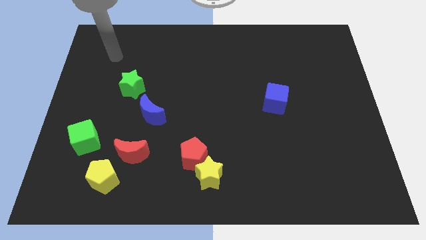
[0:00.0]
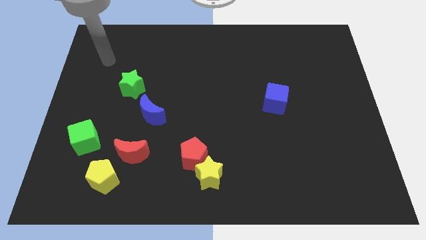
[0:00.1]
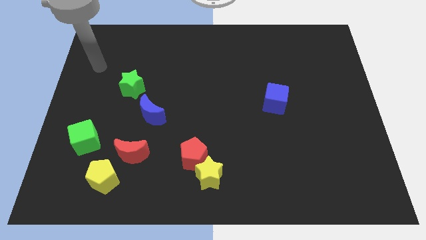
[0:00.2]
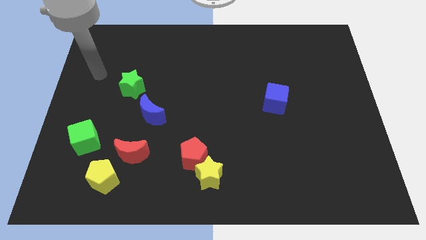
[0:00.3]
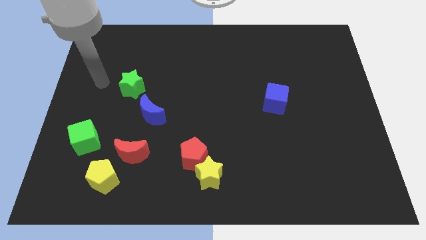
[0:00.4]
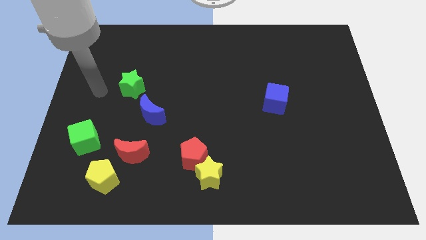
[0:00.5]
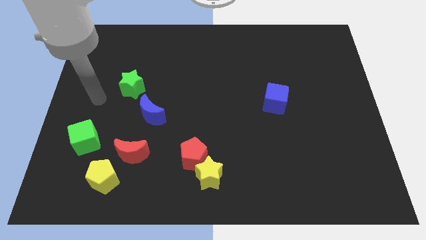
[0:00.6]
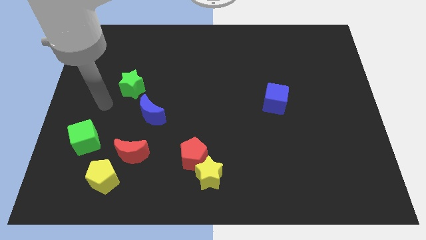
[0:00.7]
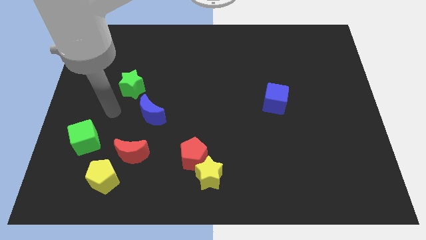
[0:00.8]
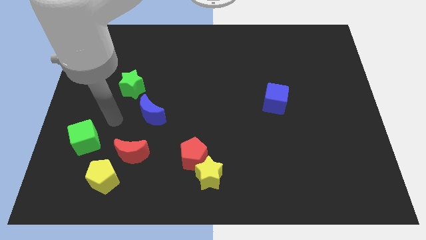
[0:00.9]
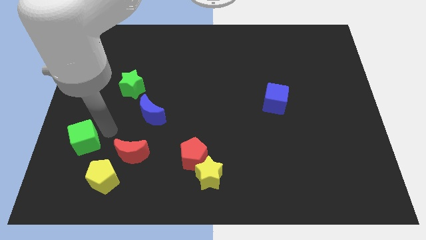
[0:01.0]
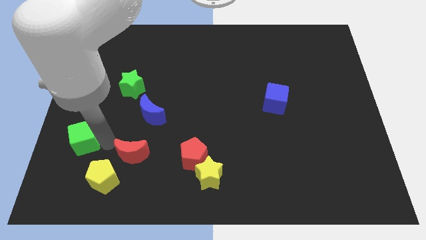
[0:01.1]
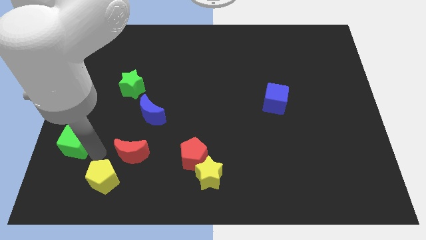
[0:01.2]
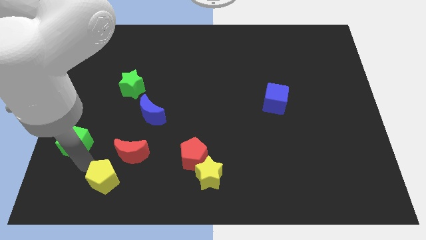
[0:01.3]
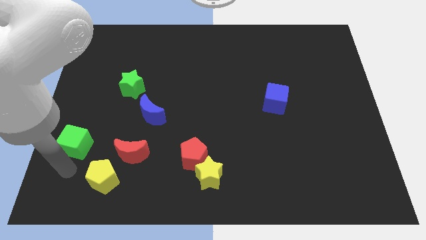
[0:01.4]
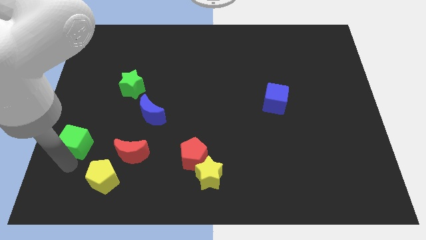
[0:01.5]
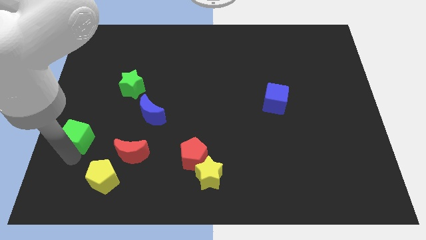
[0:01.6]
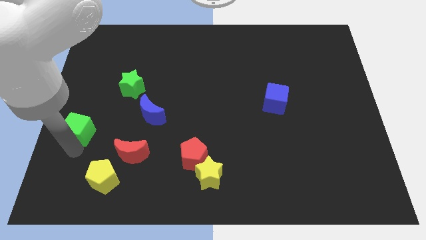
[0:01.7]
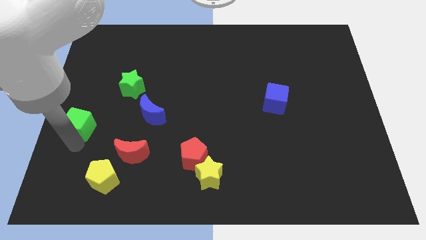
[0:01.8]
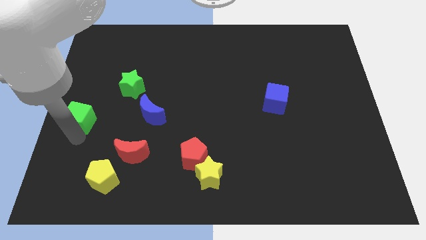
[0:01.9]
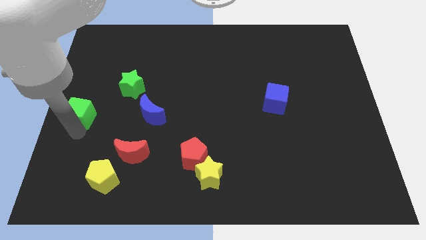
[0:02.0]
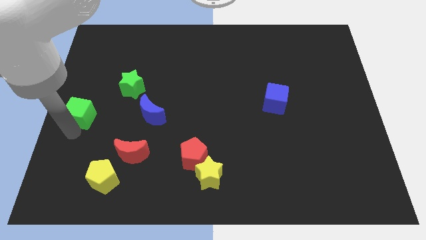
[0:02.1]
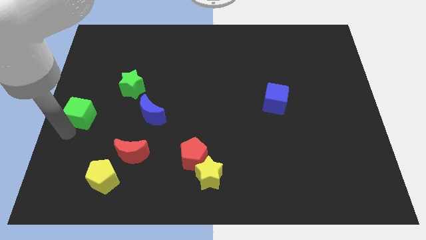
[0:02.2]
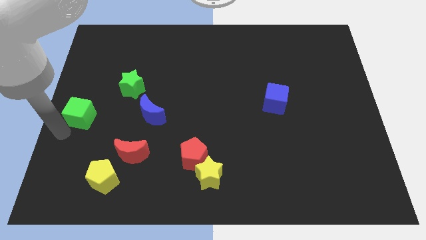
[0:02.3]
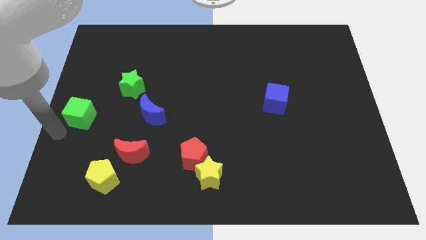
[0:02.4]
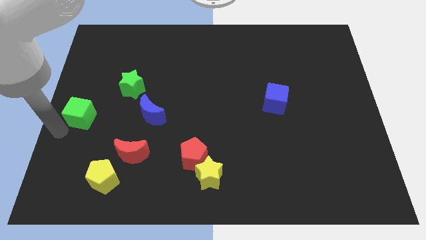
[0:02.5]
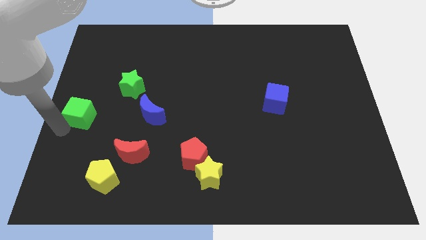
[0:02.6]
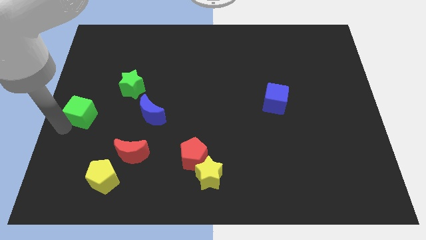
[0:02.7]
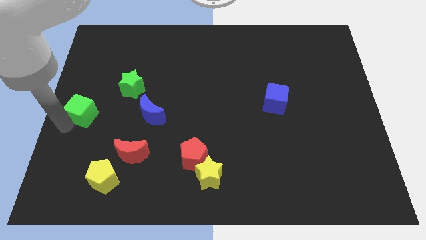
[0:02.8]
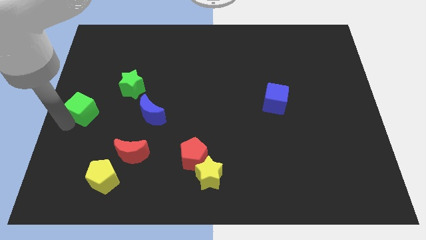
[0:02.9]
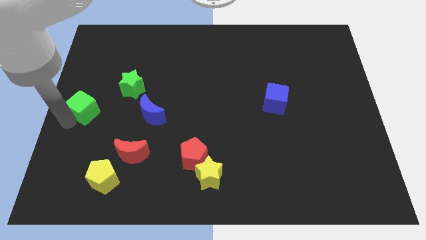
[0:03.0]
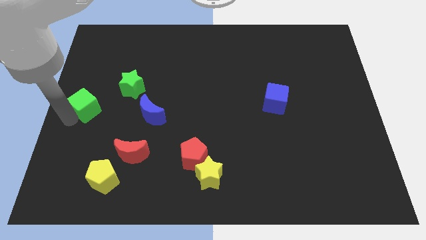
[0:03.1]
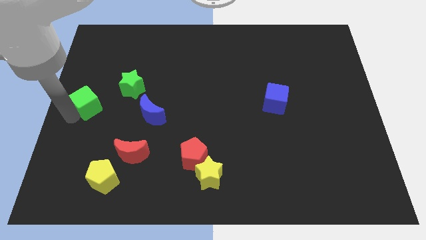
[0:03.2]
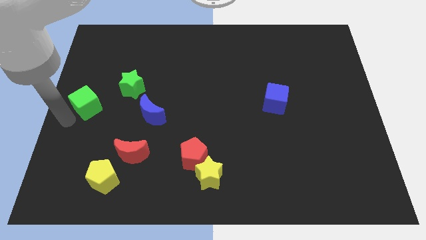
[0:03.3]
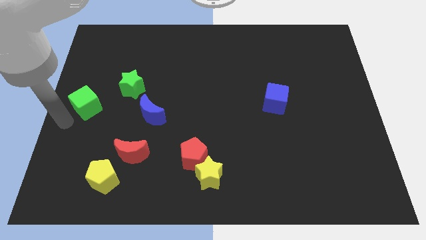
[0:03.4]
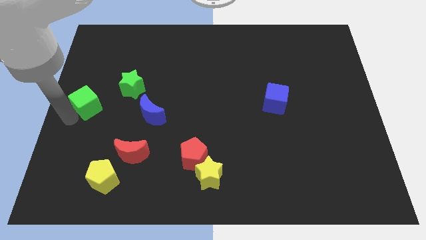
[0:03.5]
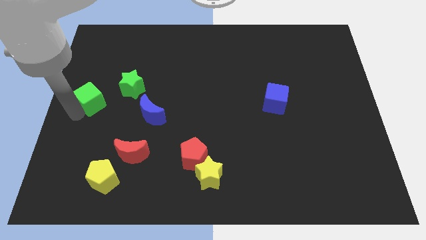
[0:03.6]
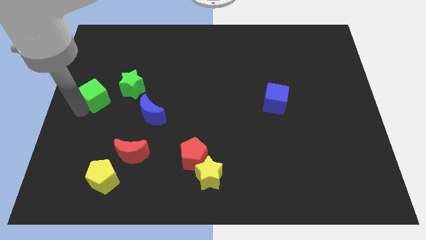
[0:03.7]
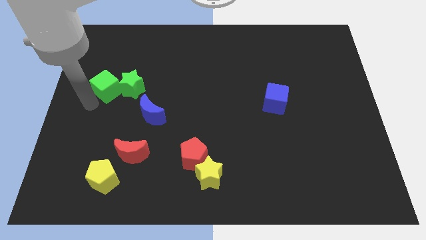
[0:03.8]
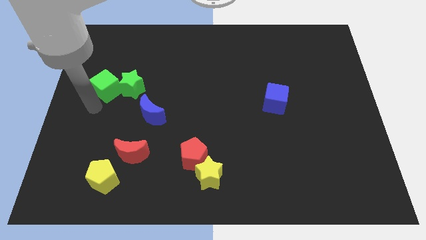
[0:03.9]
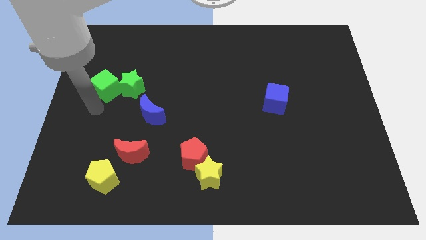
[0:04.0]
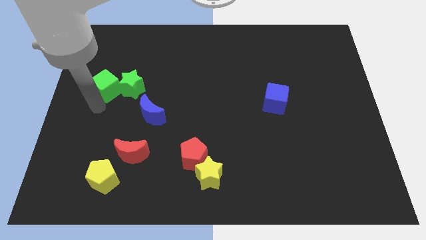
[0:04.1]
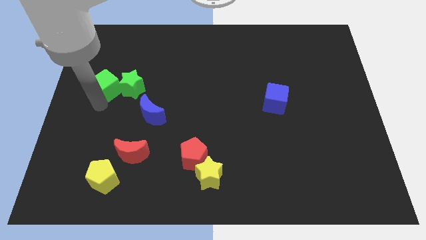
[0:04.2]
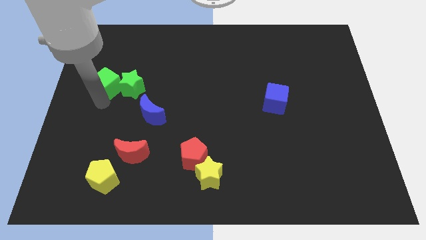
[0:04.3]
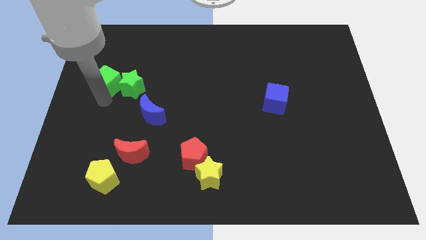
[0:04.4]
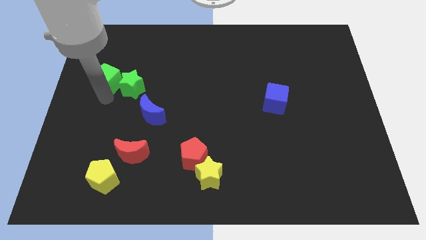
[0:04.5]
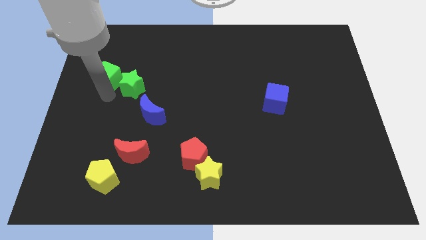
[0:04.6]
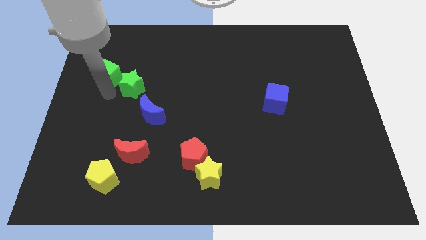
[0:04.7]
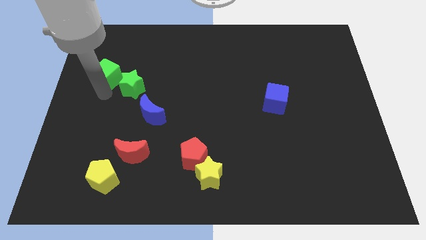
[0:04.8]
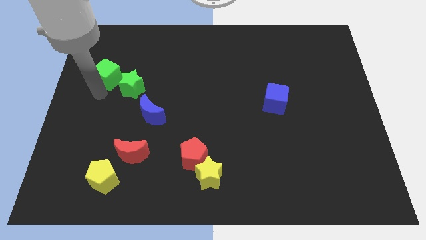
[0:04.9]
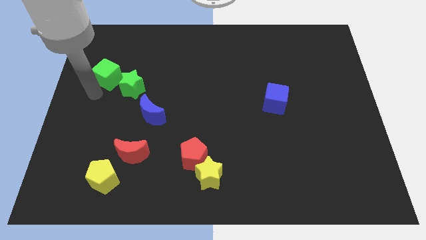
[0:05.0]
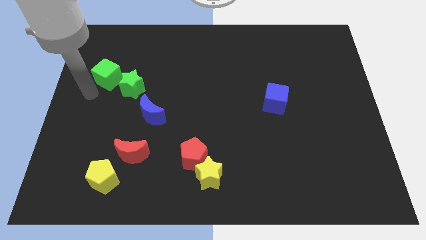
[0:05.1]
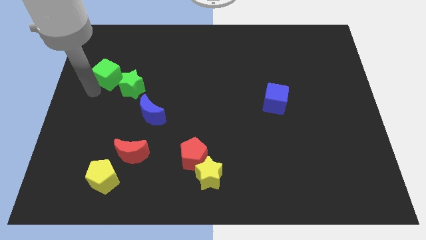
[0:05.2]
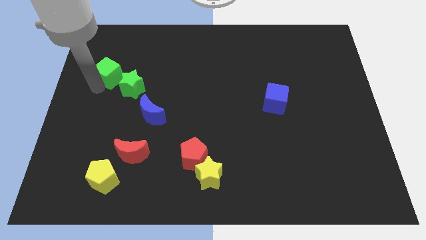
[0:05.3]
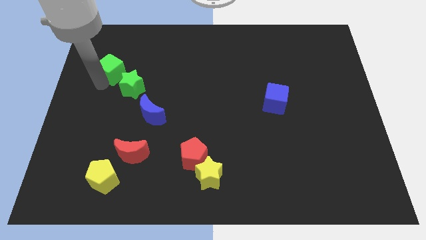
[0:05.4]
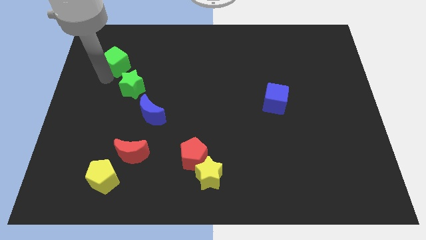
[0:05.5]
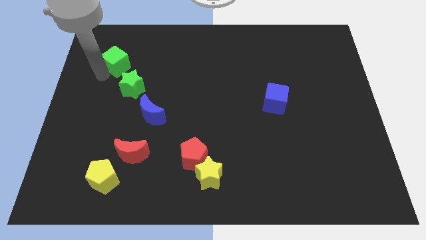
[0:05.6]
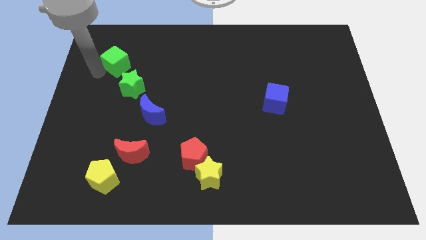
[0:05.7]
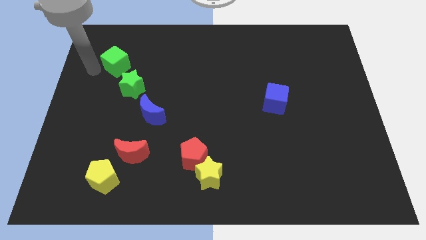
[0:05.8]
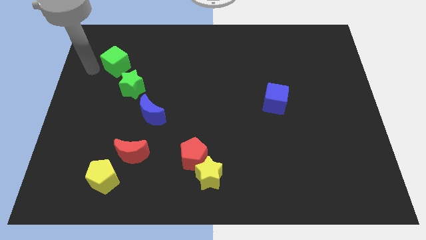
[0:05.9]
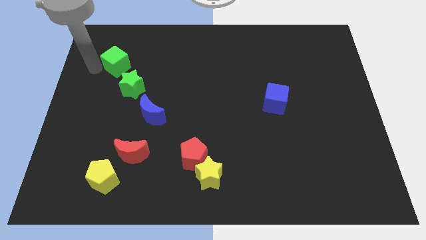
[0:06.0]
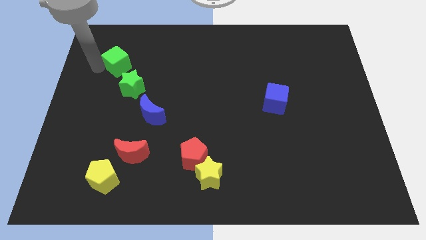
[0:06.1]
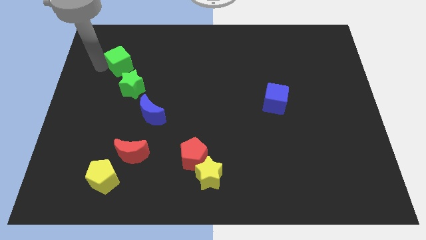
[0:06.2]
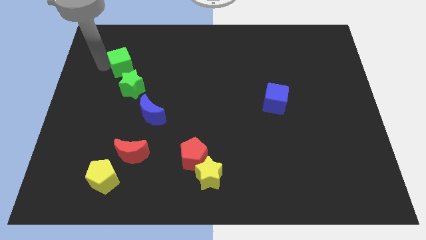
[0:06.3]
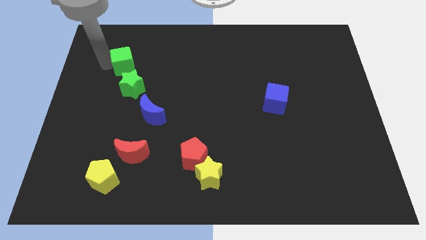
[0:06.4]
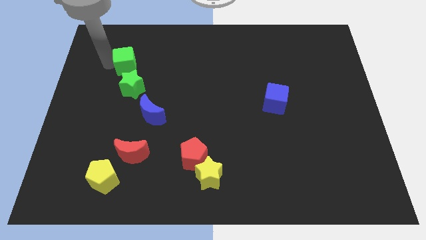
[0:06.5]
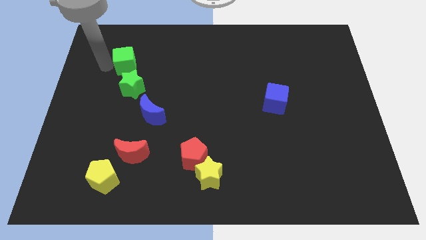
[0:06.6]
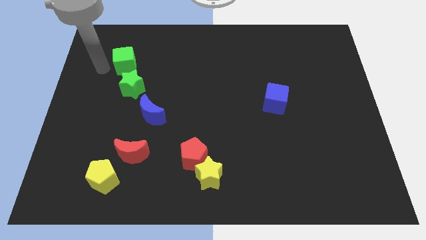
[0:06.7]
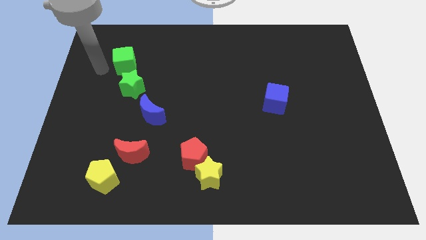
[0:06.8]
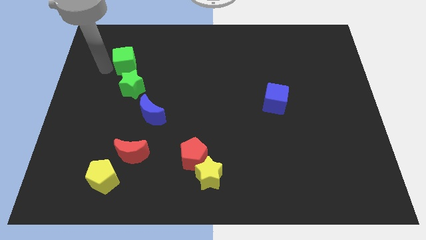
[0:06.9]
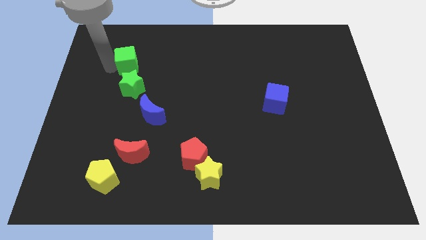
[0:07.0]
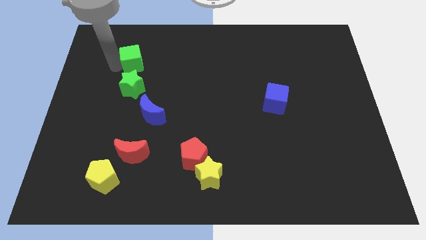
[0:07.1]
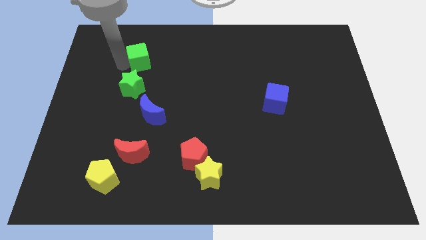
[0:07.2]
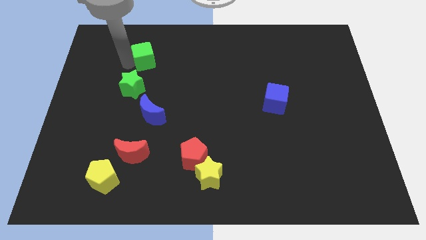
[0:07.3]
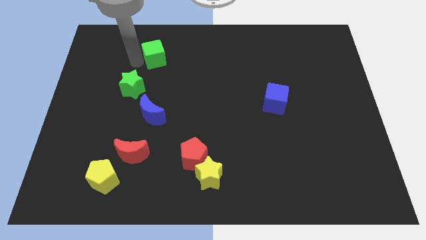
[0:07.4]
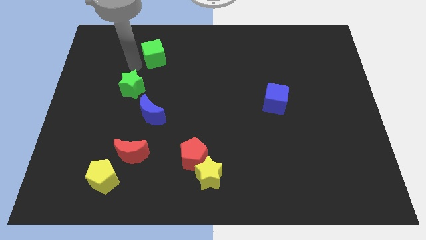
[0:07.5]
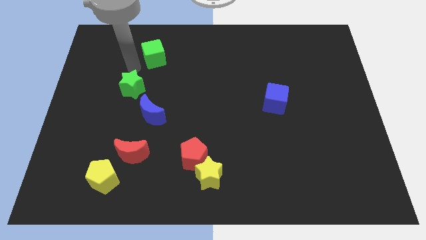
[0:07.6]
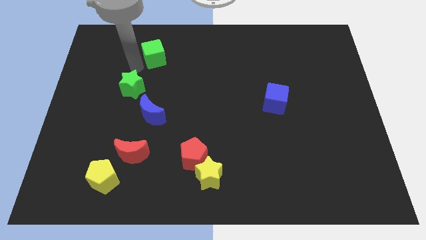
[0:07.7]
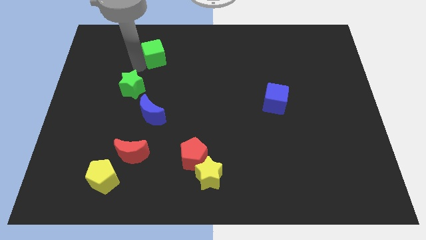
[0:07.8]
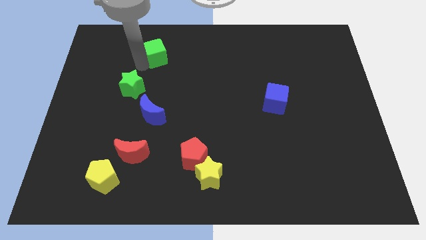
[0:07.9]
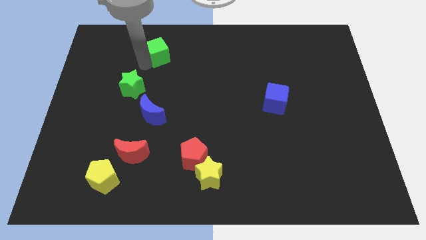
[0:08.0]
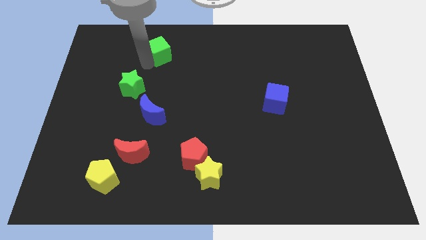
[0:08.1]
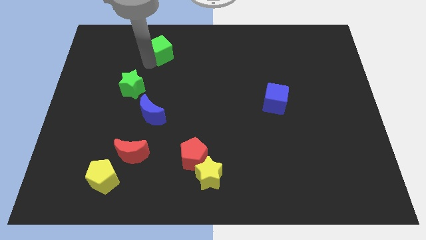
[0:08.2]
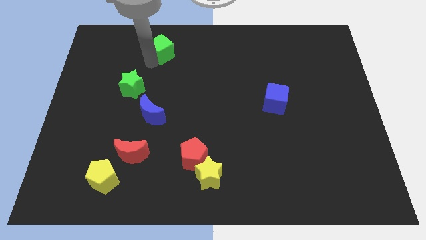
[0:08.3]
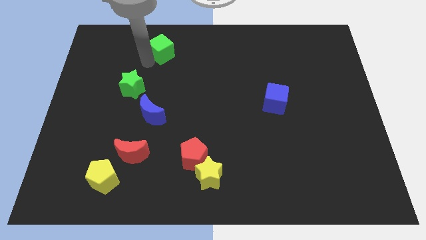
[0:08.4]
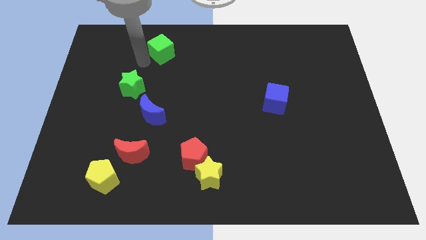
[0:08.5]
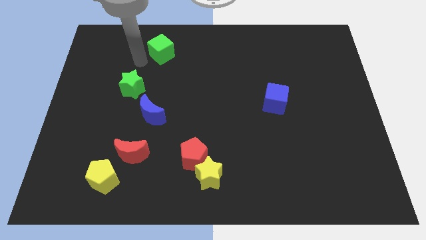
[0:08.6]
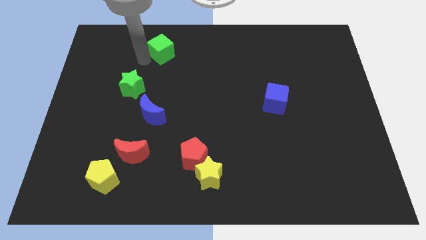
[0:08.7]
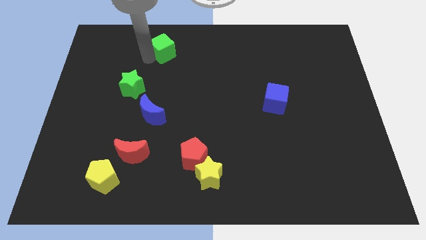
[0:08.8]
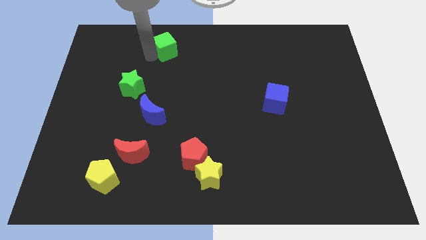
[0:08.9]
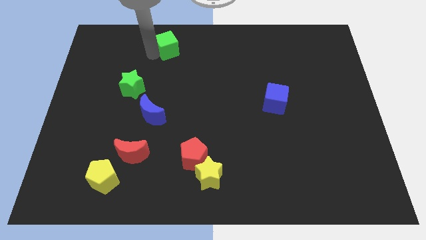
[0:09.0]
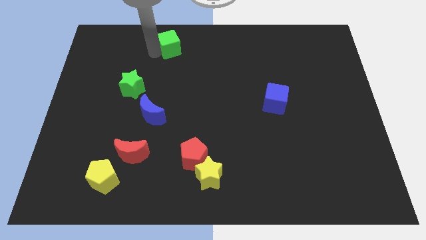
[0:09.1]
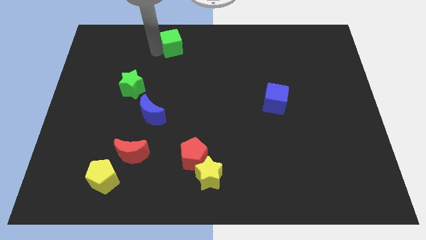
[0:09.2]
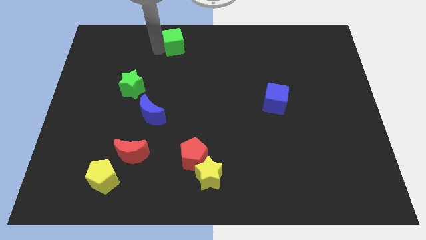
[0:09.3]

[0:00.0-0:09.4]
put the green cube to the towards your base
